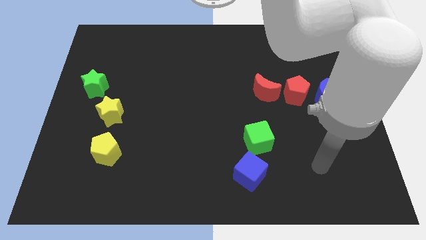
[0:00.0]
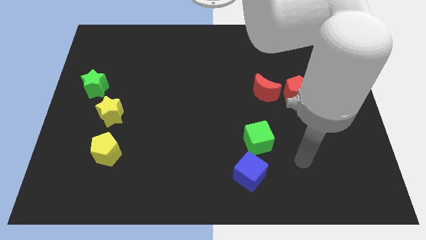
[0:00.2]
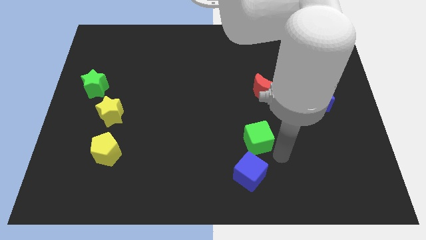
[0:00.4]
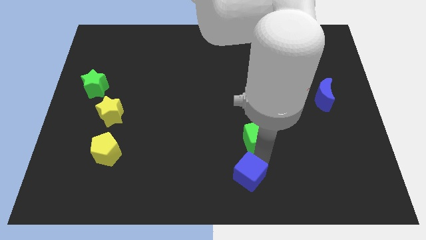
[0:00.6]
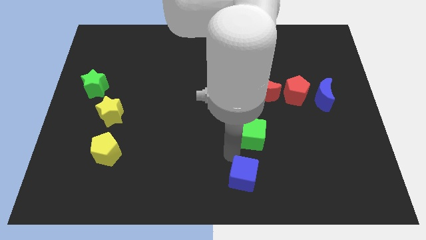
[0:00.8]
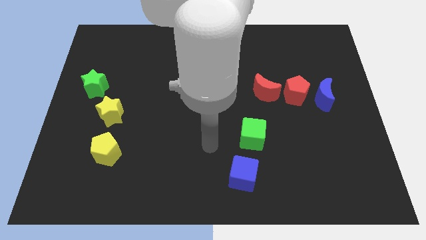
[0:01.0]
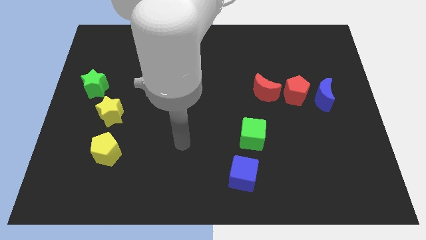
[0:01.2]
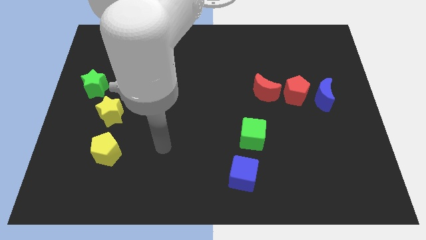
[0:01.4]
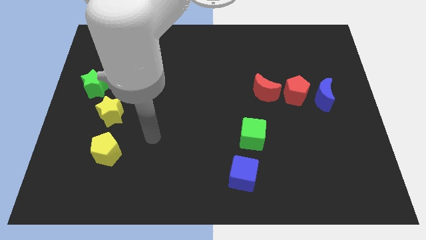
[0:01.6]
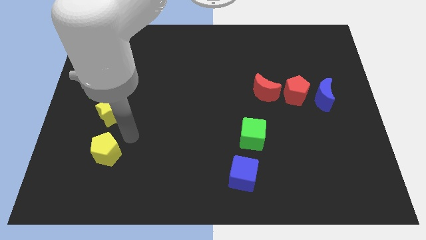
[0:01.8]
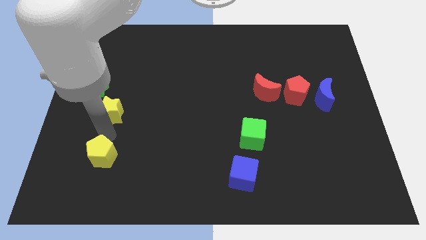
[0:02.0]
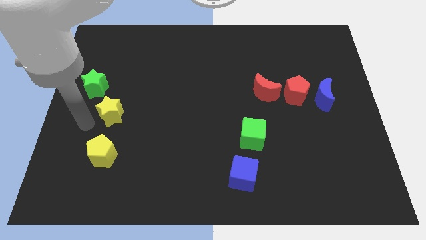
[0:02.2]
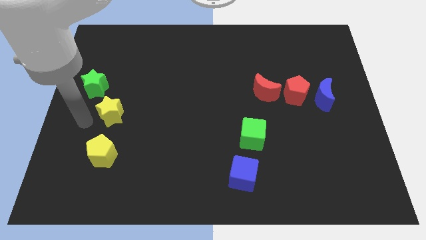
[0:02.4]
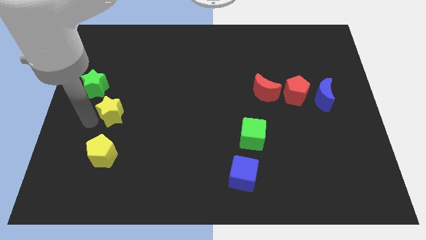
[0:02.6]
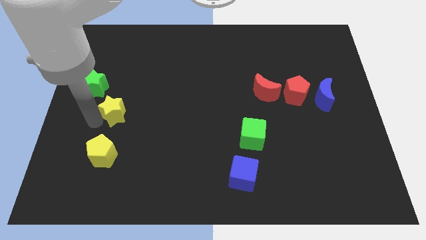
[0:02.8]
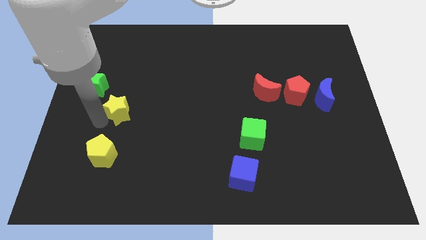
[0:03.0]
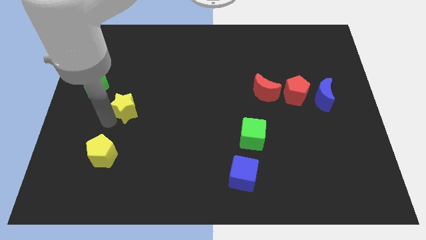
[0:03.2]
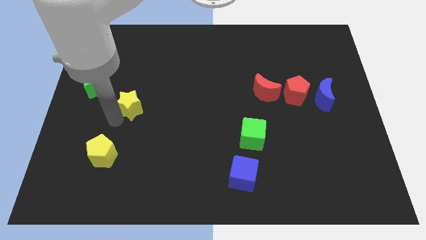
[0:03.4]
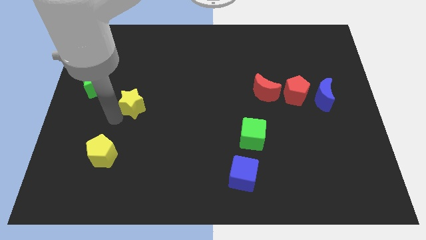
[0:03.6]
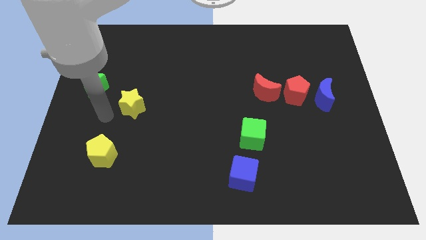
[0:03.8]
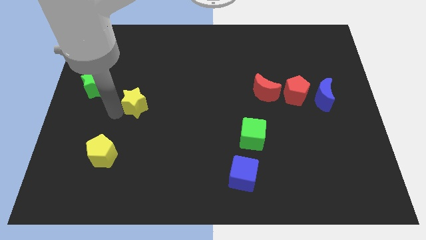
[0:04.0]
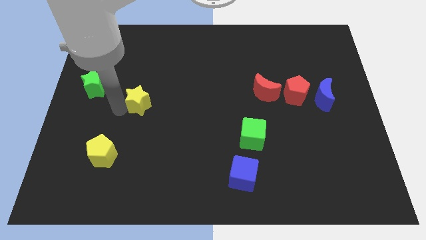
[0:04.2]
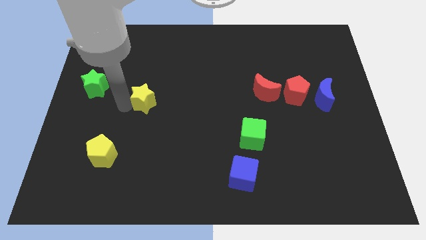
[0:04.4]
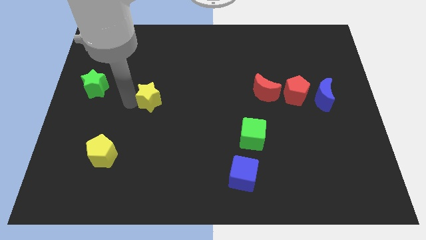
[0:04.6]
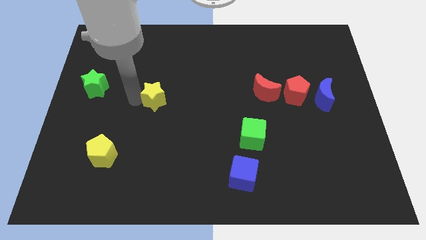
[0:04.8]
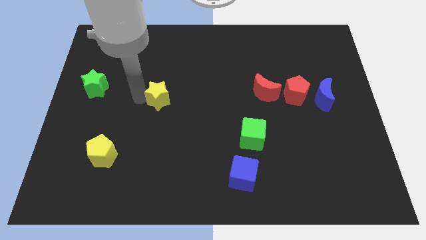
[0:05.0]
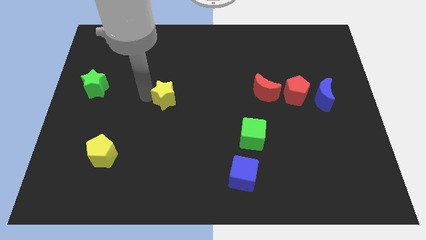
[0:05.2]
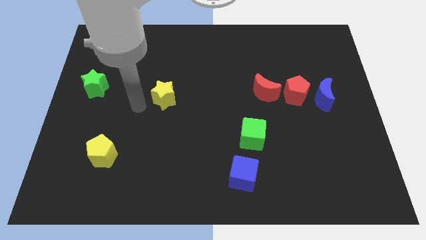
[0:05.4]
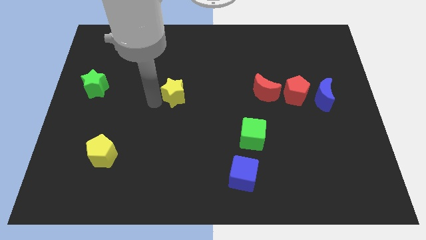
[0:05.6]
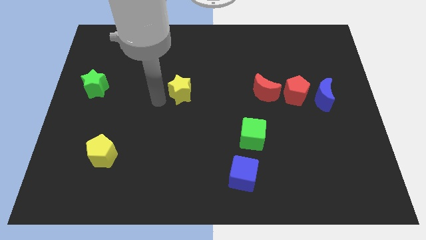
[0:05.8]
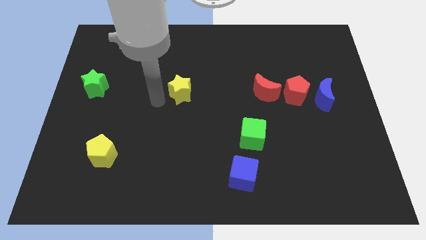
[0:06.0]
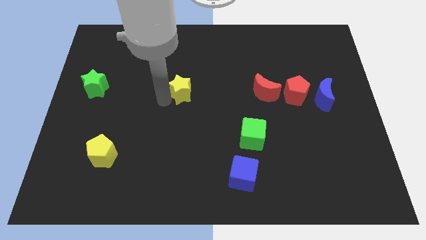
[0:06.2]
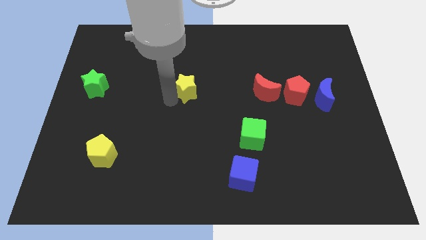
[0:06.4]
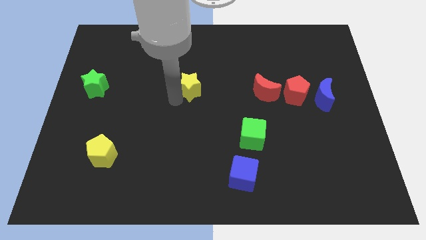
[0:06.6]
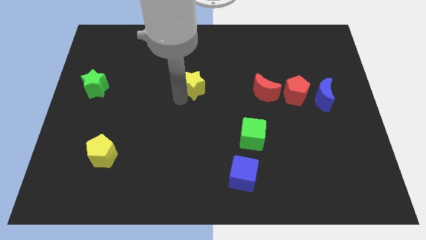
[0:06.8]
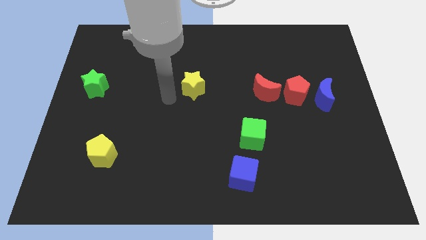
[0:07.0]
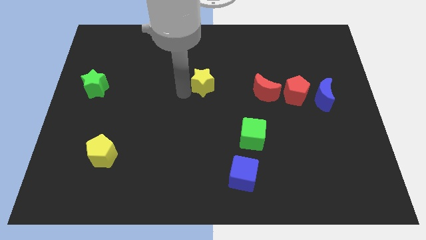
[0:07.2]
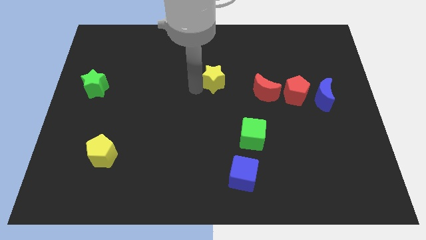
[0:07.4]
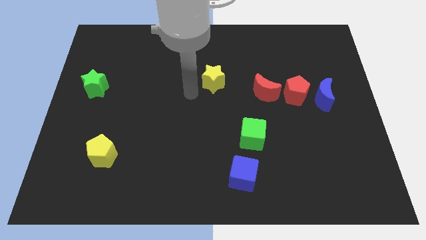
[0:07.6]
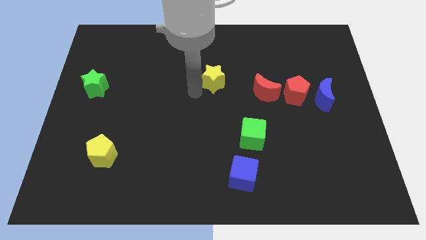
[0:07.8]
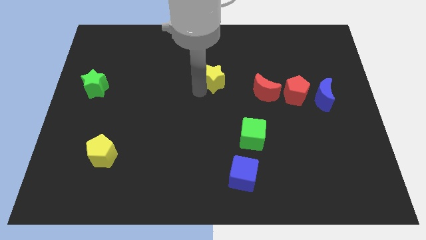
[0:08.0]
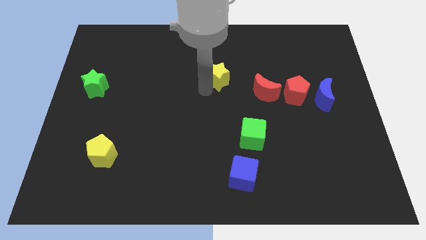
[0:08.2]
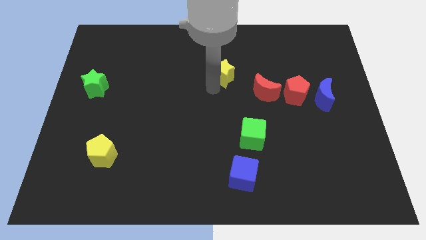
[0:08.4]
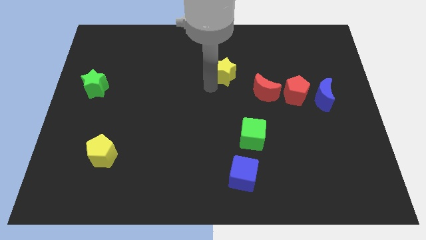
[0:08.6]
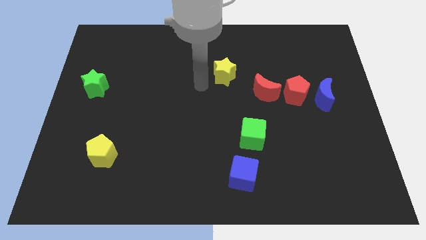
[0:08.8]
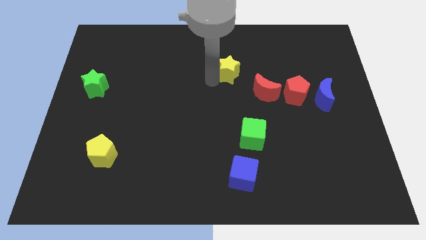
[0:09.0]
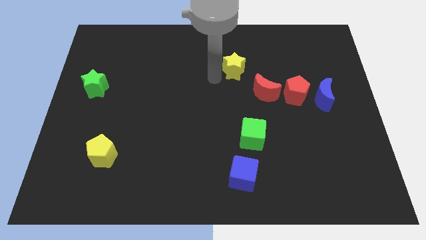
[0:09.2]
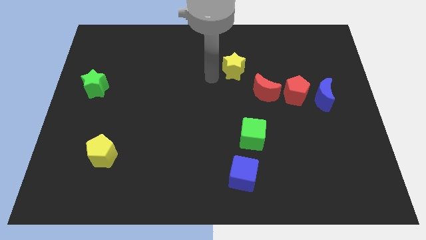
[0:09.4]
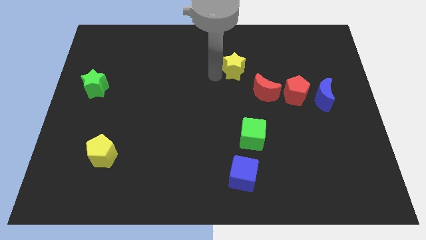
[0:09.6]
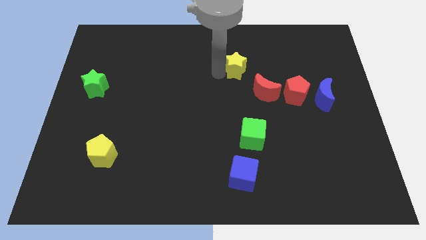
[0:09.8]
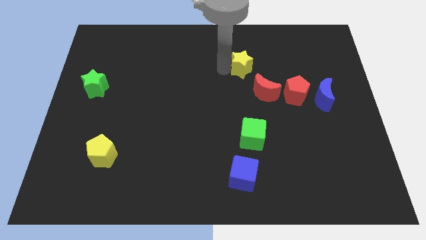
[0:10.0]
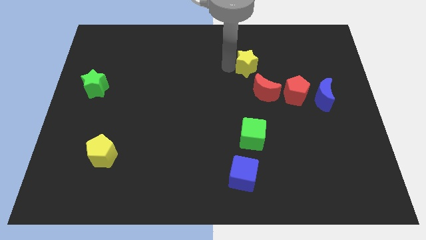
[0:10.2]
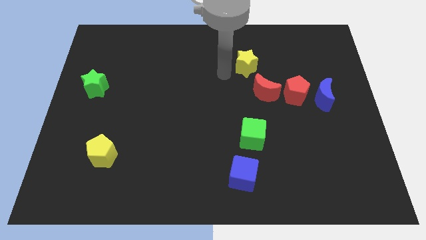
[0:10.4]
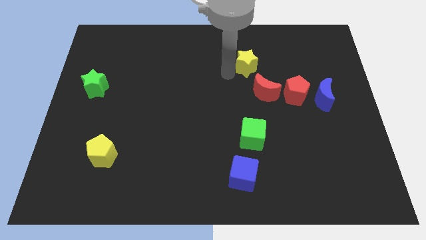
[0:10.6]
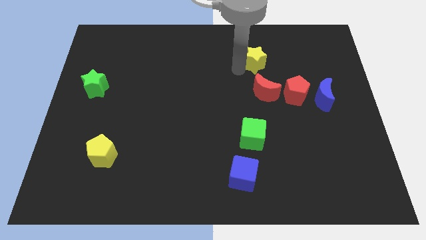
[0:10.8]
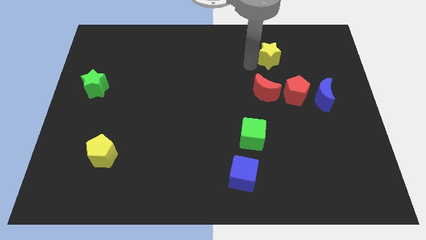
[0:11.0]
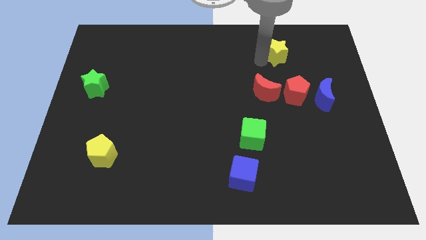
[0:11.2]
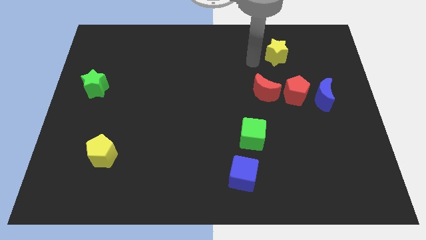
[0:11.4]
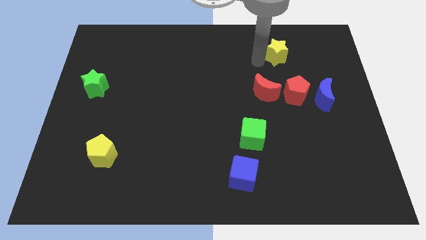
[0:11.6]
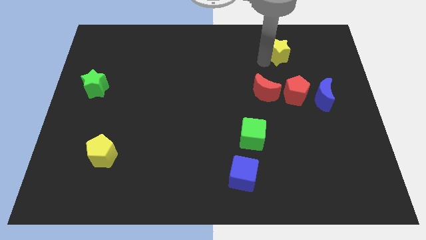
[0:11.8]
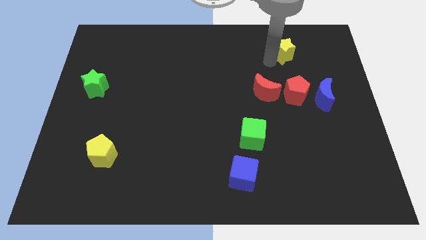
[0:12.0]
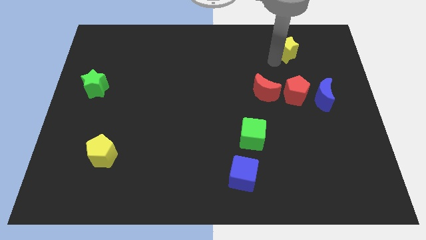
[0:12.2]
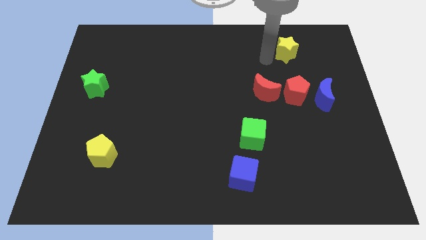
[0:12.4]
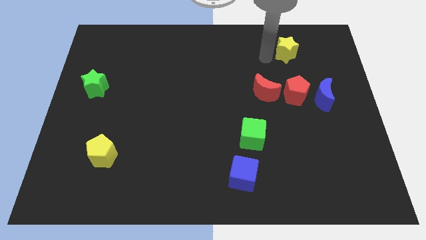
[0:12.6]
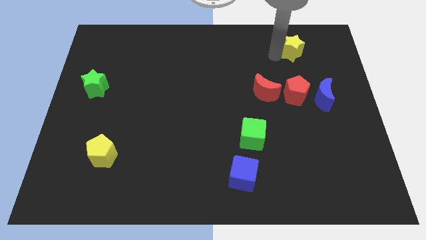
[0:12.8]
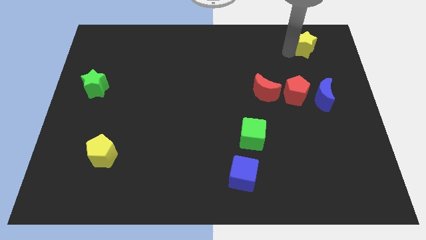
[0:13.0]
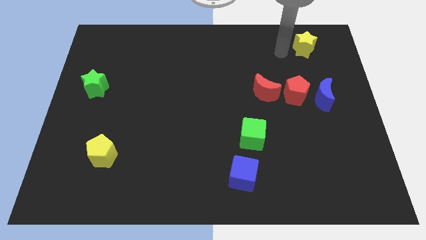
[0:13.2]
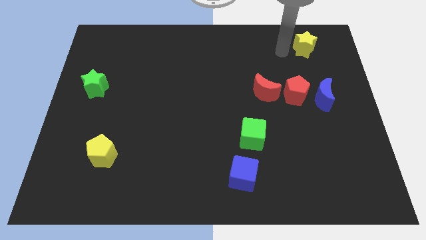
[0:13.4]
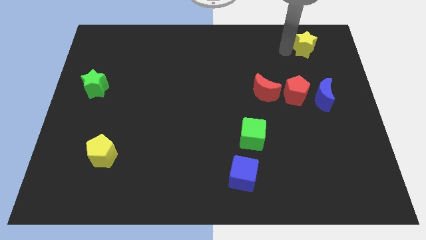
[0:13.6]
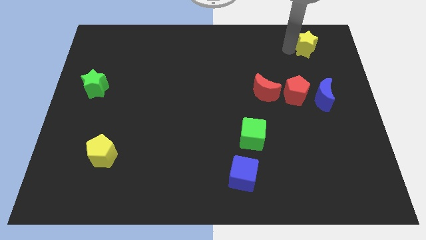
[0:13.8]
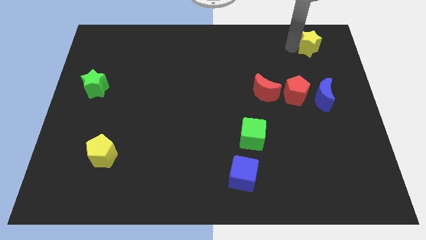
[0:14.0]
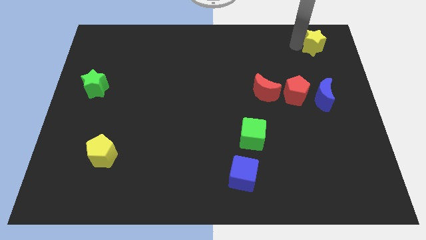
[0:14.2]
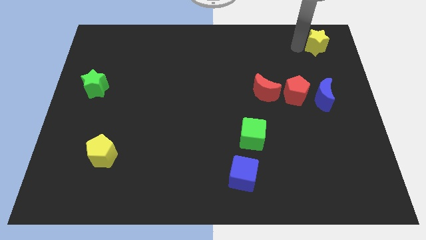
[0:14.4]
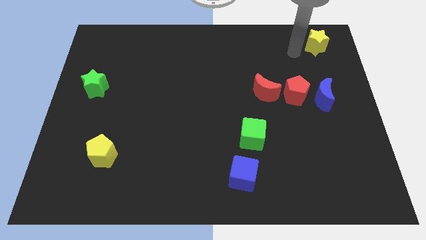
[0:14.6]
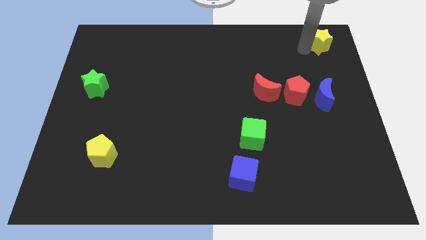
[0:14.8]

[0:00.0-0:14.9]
put the yellow star to the upper right corner

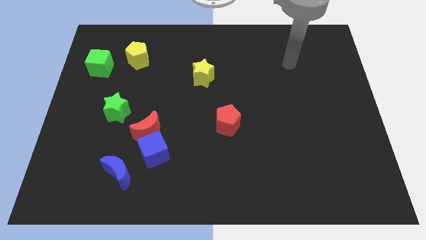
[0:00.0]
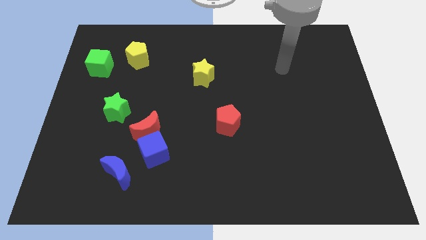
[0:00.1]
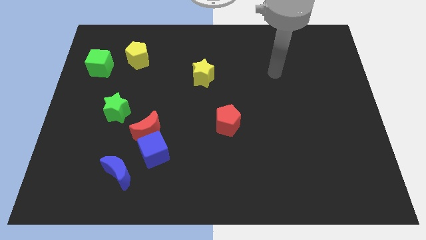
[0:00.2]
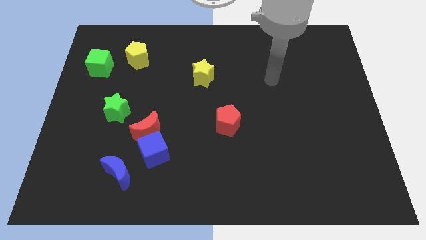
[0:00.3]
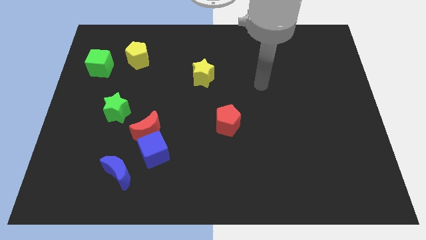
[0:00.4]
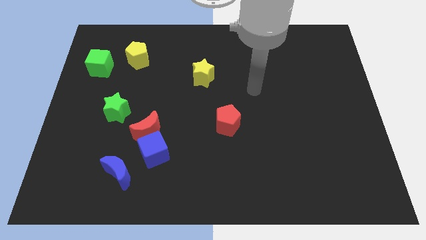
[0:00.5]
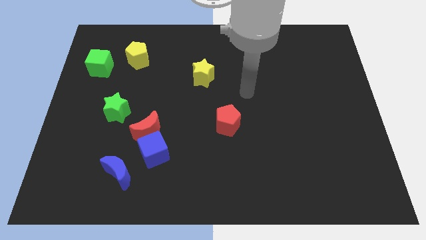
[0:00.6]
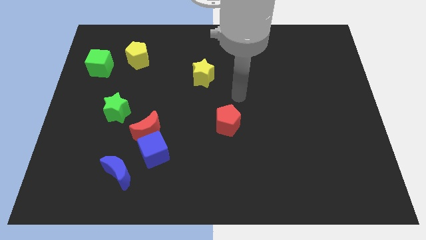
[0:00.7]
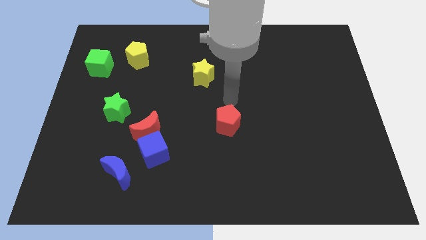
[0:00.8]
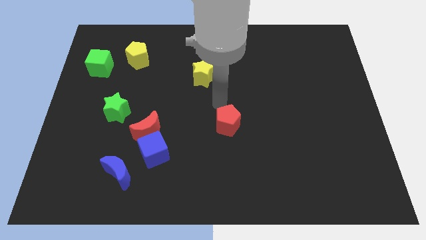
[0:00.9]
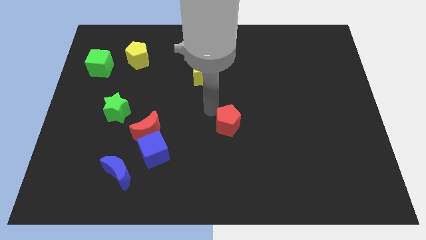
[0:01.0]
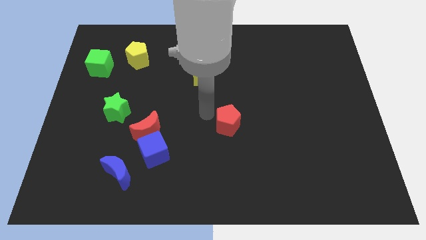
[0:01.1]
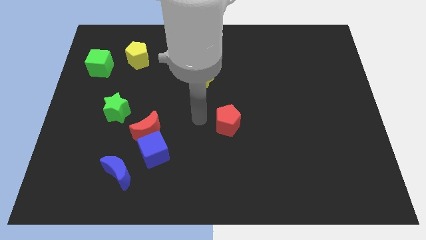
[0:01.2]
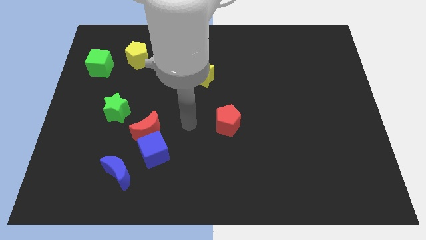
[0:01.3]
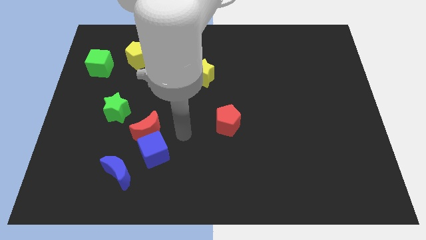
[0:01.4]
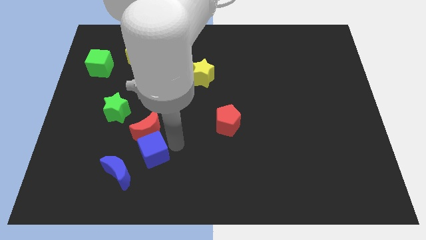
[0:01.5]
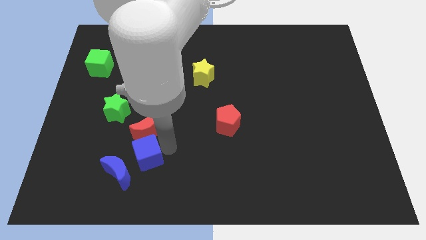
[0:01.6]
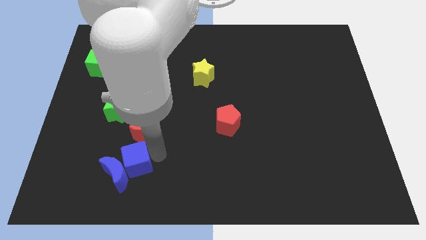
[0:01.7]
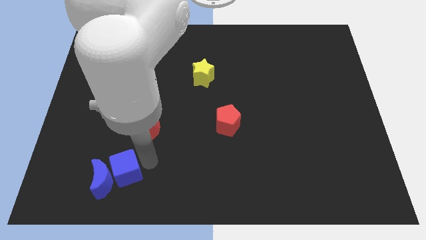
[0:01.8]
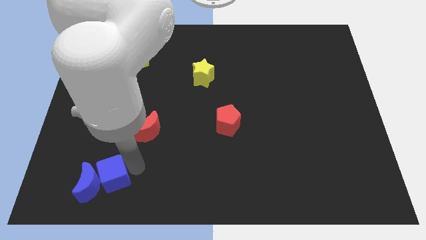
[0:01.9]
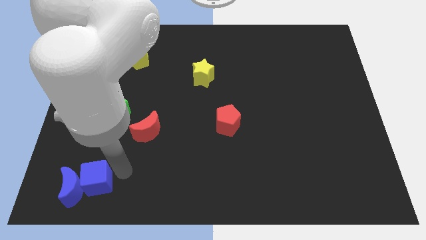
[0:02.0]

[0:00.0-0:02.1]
push the blue moon to the lower left corner
